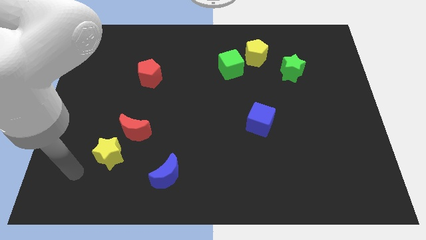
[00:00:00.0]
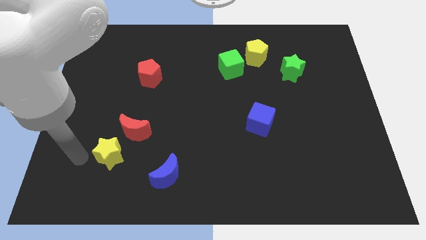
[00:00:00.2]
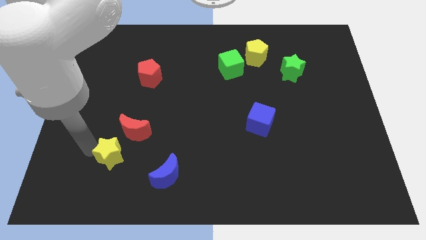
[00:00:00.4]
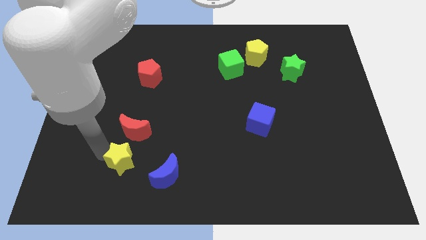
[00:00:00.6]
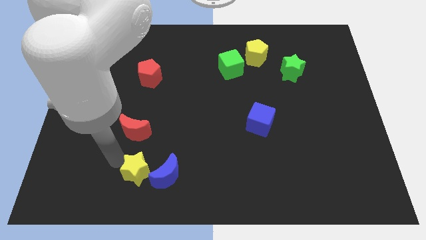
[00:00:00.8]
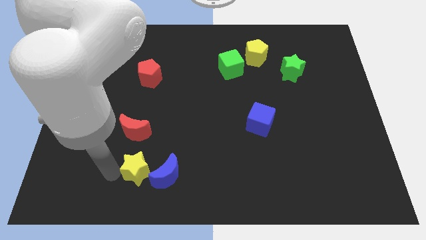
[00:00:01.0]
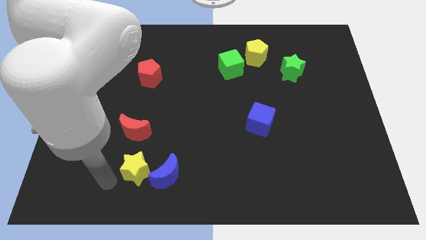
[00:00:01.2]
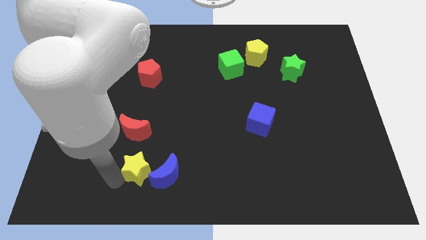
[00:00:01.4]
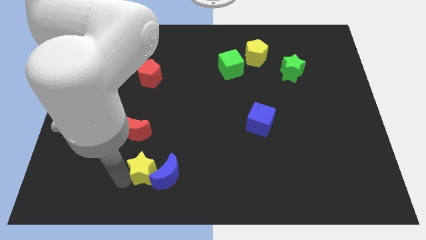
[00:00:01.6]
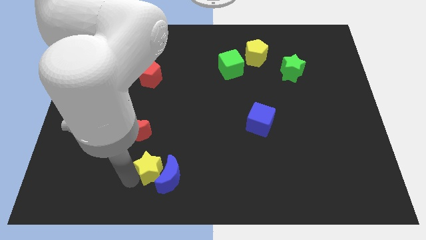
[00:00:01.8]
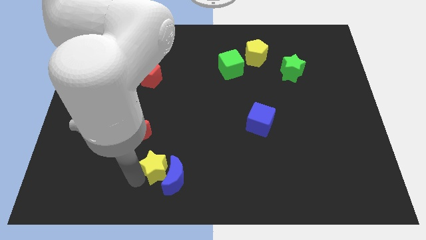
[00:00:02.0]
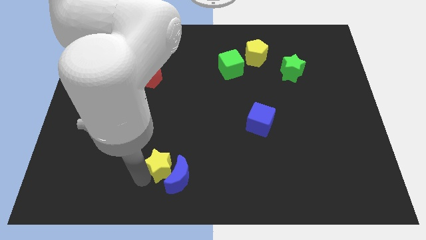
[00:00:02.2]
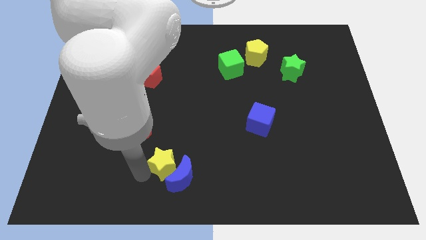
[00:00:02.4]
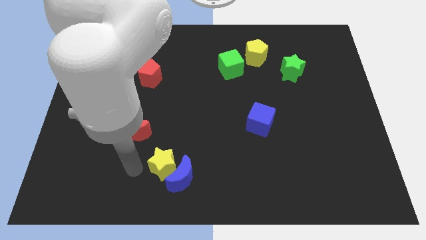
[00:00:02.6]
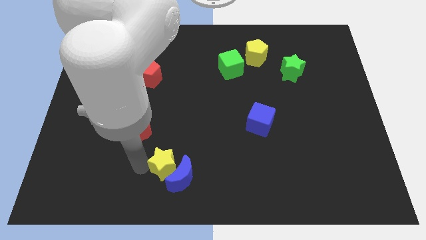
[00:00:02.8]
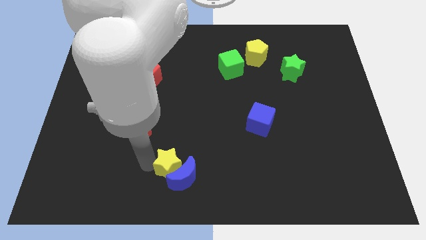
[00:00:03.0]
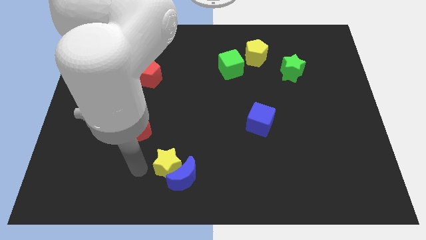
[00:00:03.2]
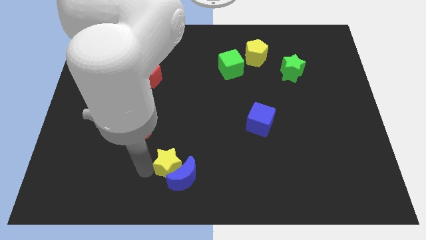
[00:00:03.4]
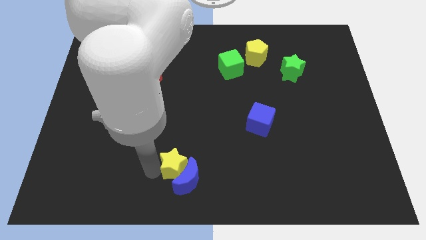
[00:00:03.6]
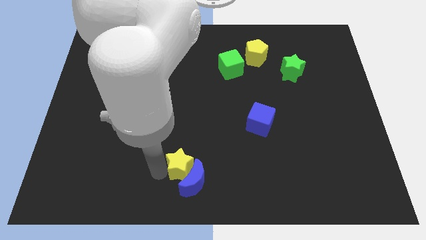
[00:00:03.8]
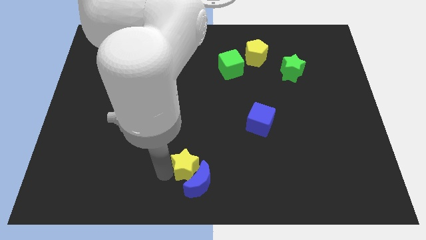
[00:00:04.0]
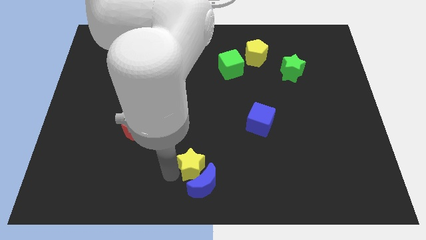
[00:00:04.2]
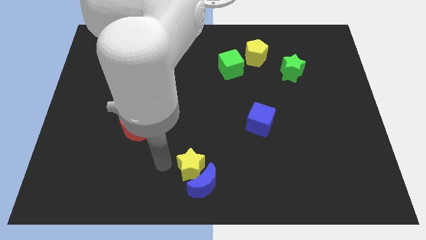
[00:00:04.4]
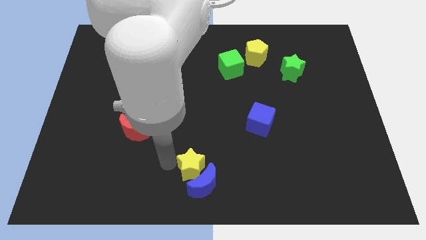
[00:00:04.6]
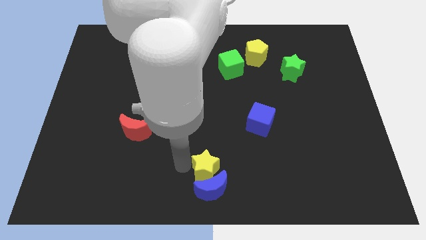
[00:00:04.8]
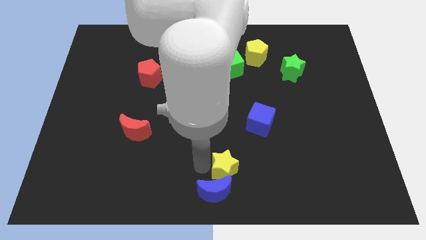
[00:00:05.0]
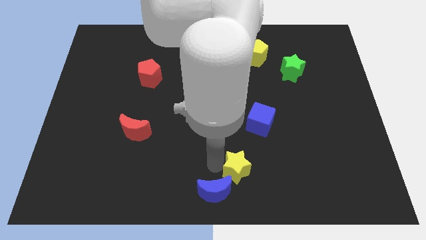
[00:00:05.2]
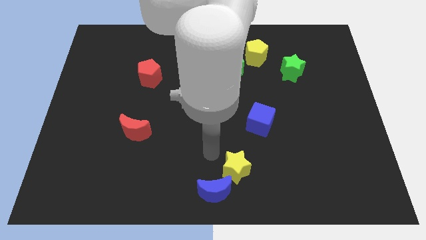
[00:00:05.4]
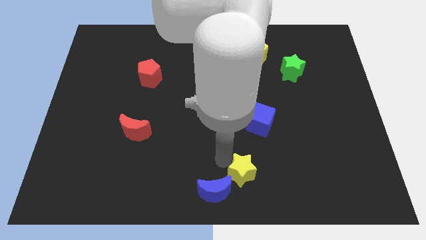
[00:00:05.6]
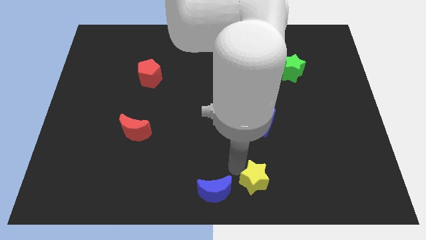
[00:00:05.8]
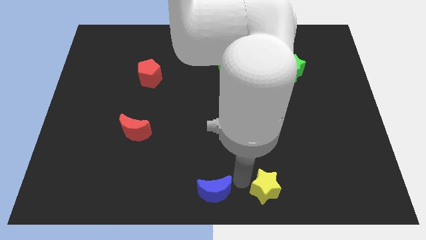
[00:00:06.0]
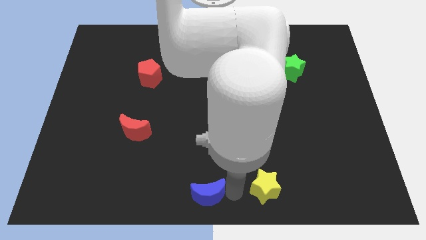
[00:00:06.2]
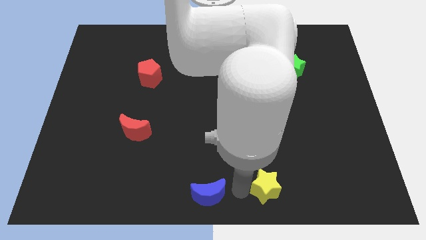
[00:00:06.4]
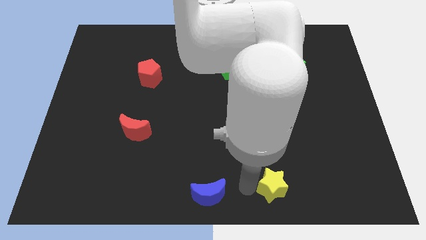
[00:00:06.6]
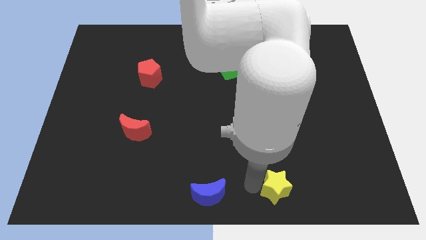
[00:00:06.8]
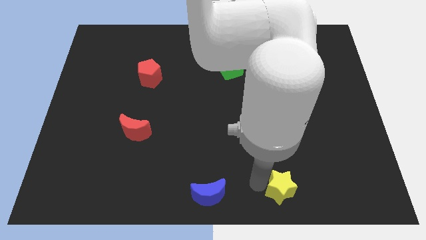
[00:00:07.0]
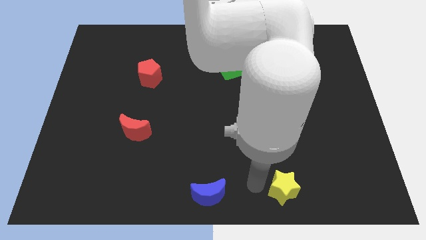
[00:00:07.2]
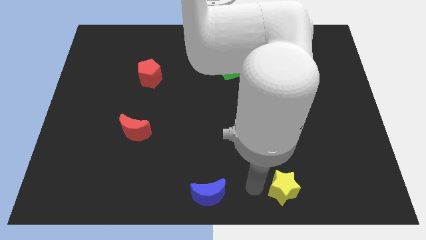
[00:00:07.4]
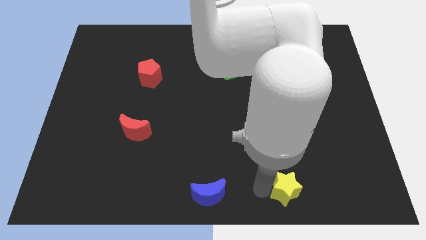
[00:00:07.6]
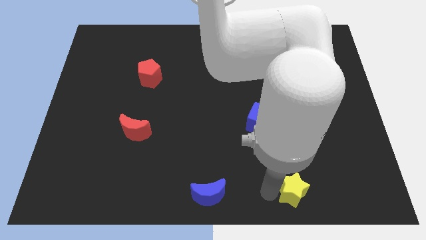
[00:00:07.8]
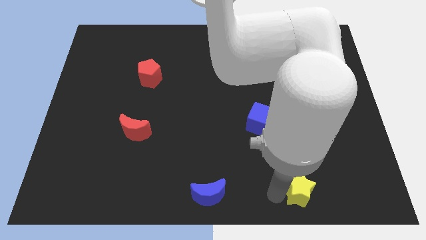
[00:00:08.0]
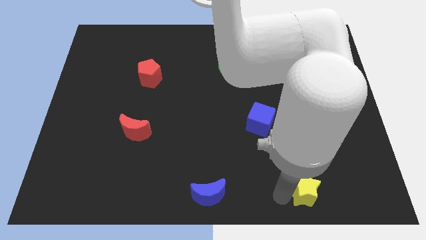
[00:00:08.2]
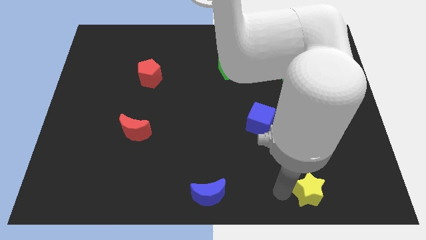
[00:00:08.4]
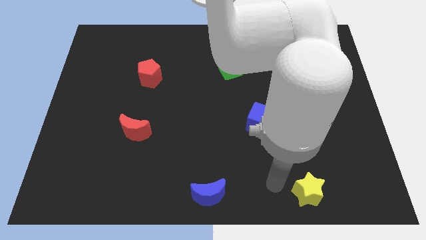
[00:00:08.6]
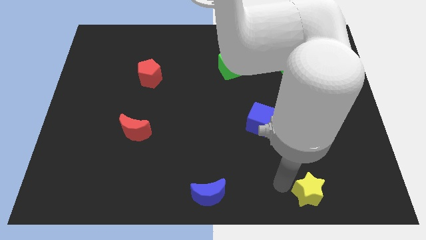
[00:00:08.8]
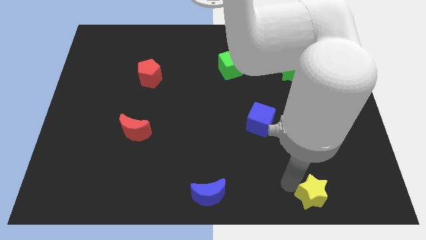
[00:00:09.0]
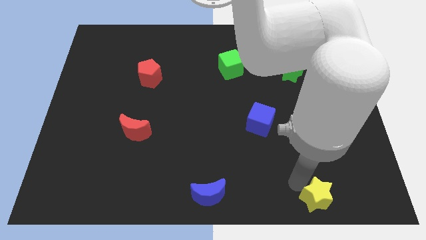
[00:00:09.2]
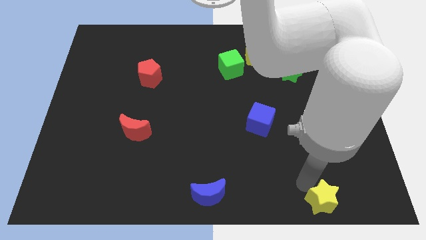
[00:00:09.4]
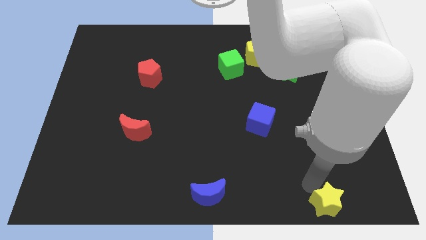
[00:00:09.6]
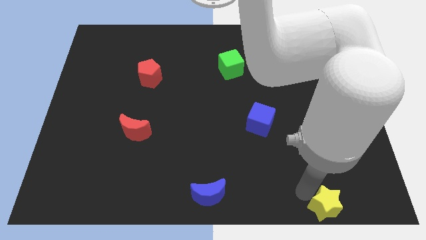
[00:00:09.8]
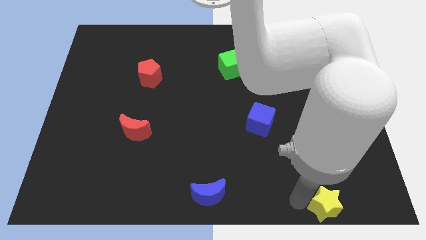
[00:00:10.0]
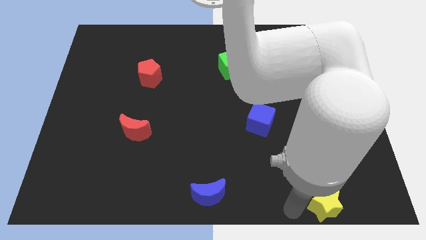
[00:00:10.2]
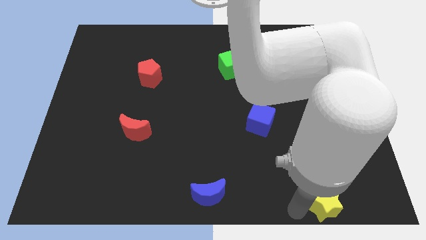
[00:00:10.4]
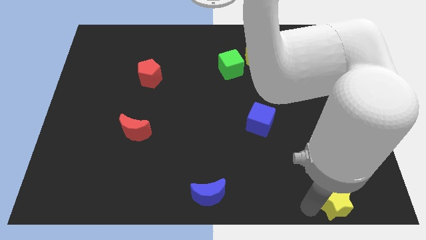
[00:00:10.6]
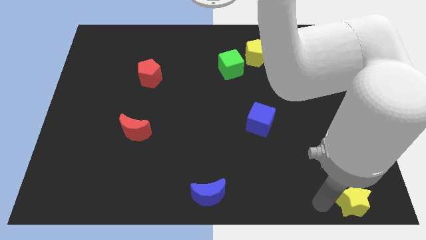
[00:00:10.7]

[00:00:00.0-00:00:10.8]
push the yellow star to the bottom right of the board

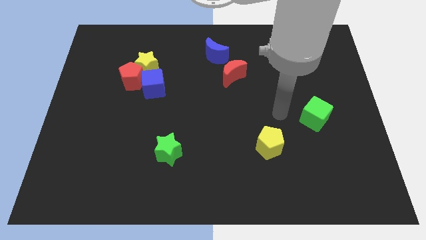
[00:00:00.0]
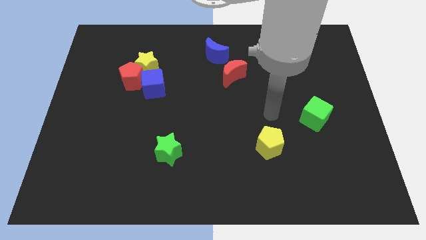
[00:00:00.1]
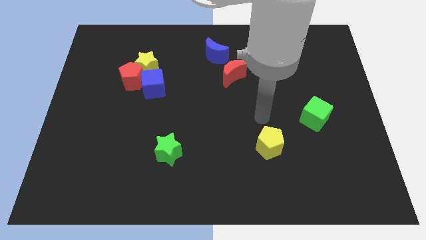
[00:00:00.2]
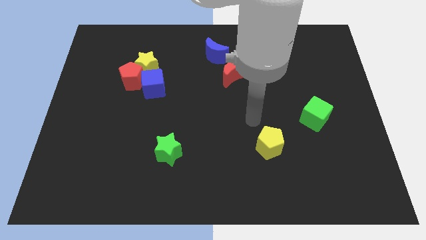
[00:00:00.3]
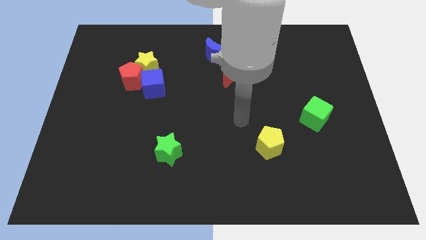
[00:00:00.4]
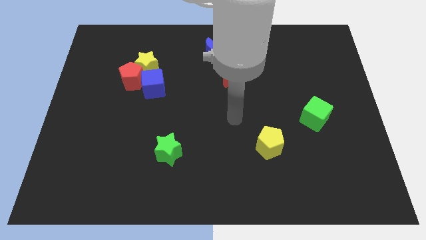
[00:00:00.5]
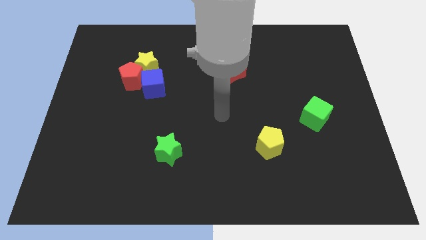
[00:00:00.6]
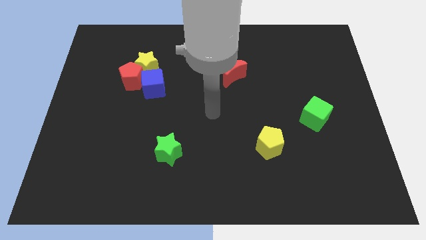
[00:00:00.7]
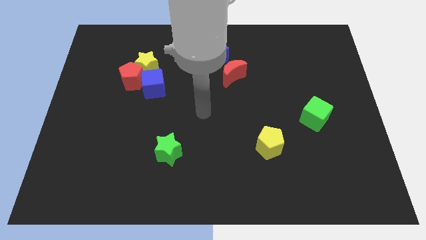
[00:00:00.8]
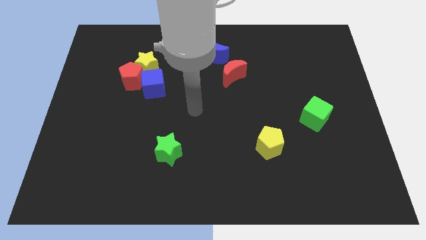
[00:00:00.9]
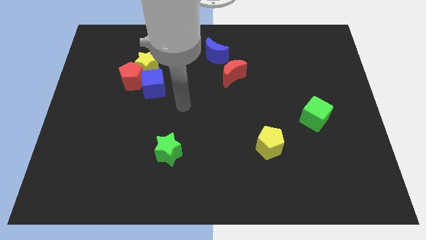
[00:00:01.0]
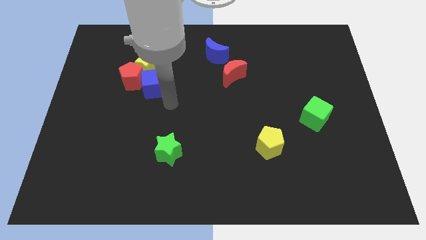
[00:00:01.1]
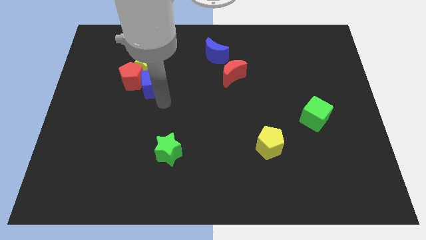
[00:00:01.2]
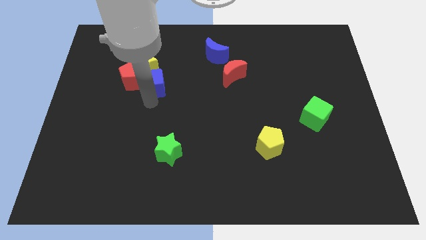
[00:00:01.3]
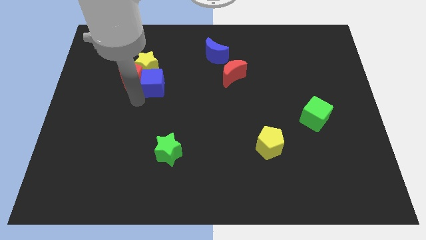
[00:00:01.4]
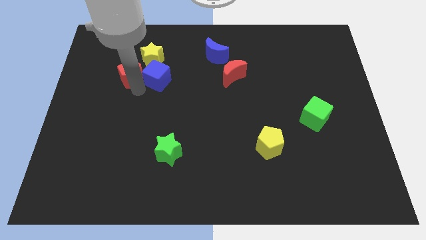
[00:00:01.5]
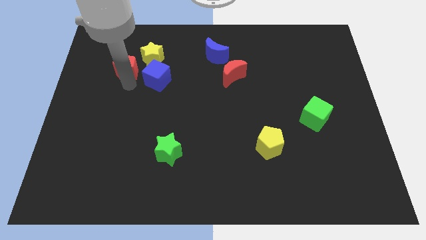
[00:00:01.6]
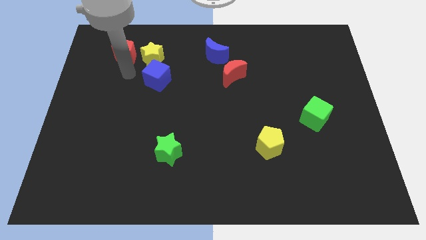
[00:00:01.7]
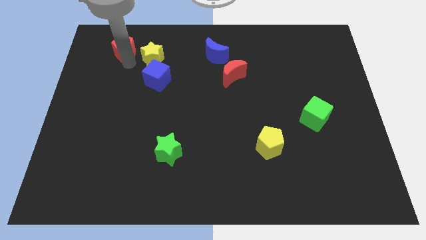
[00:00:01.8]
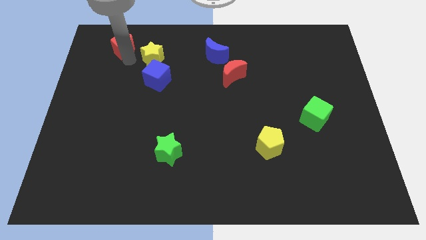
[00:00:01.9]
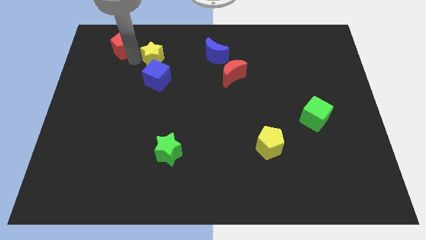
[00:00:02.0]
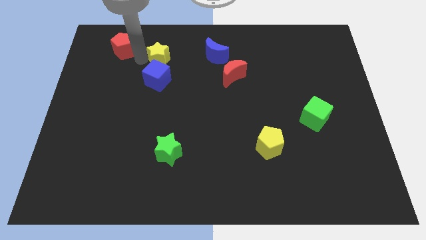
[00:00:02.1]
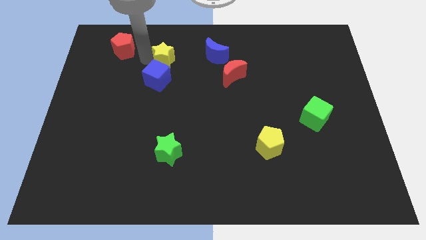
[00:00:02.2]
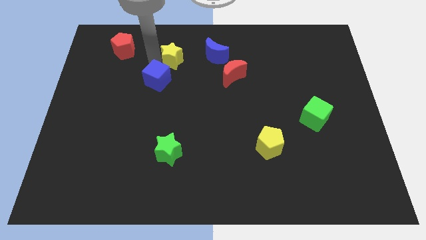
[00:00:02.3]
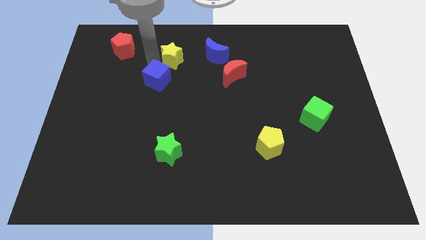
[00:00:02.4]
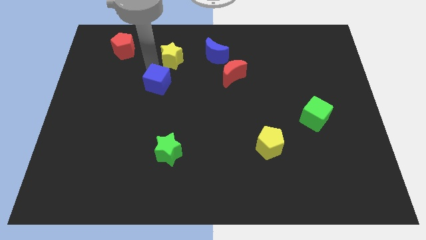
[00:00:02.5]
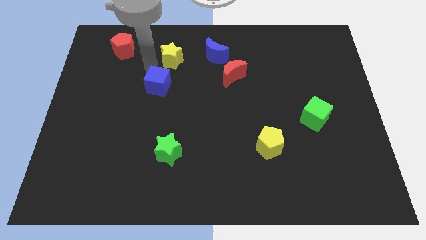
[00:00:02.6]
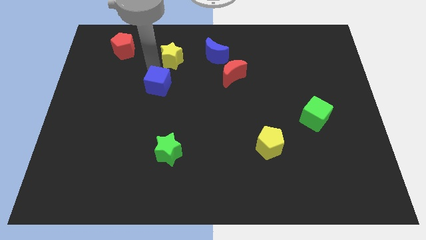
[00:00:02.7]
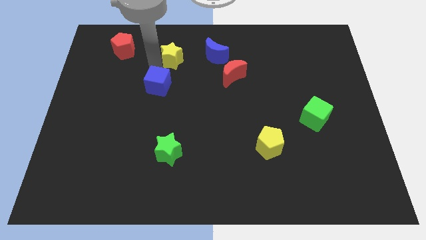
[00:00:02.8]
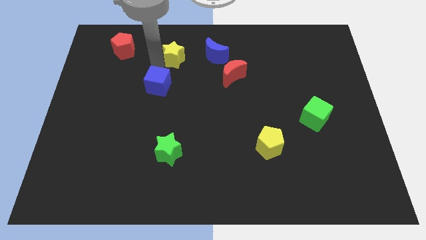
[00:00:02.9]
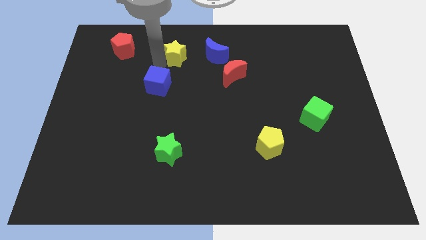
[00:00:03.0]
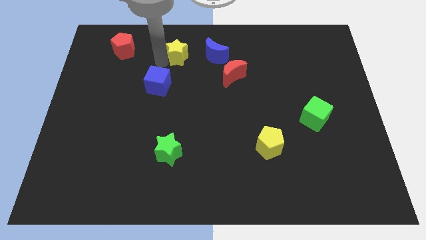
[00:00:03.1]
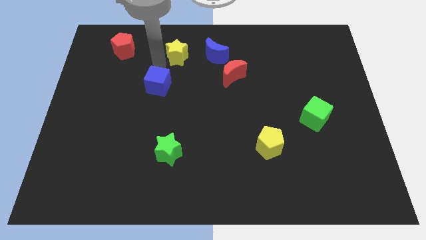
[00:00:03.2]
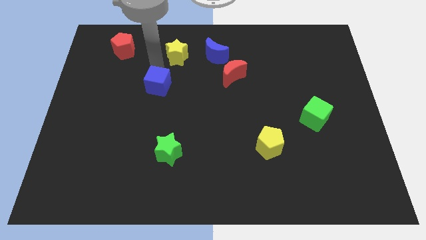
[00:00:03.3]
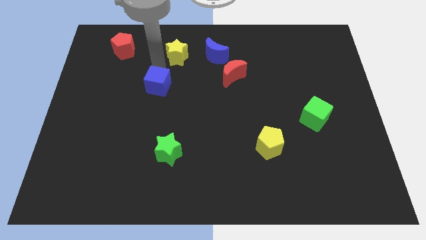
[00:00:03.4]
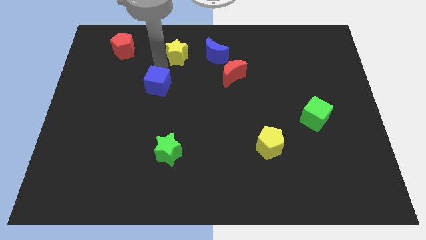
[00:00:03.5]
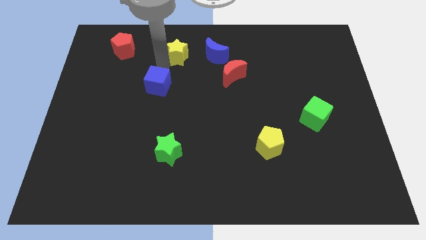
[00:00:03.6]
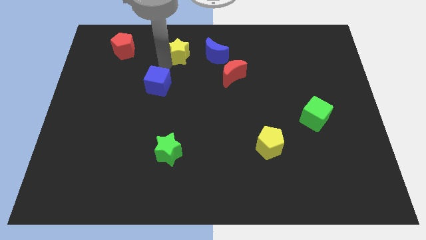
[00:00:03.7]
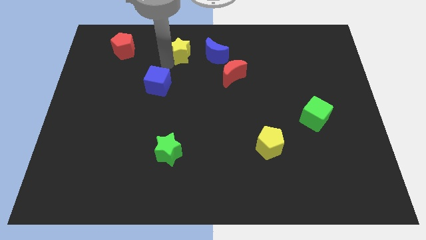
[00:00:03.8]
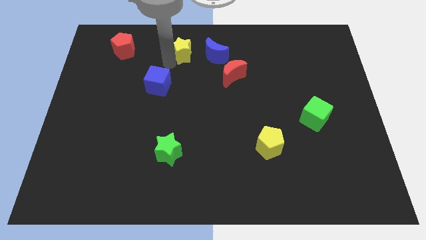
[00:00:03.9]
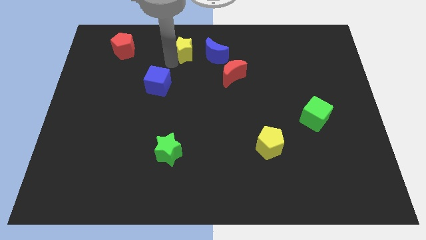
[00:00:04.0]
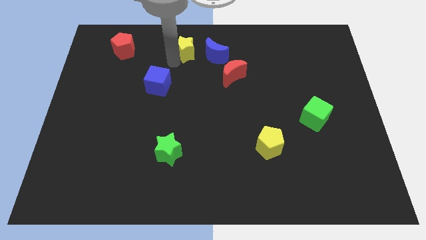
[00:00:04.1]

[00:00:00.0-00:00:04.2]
move the yellow star to the towards your base
